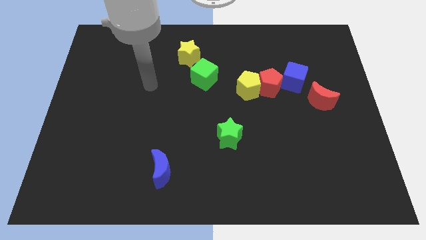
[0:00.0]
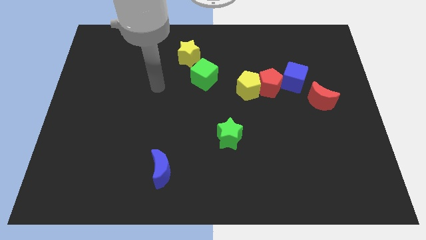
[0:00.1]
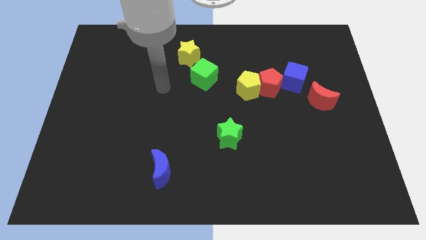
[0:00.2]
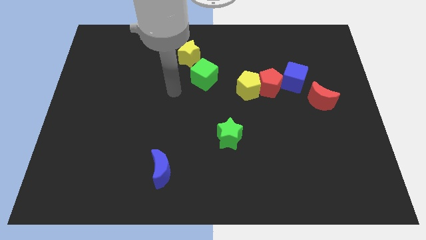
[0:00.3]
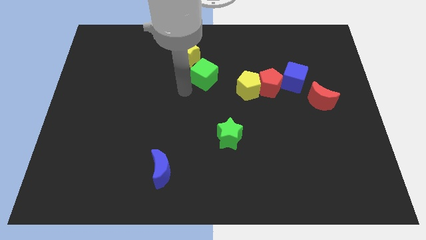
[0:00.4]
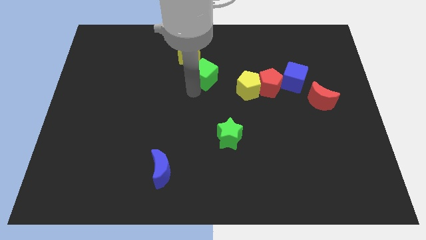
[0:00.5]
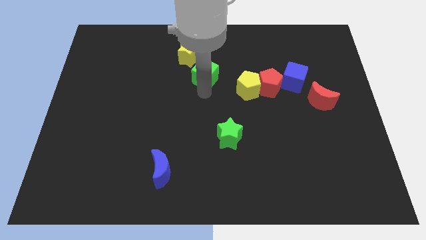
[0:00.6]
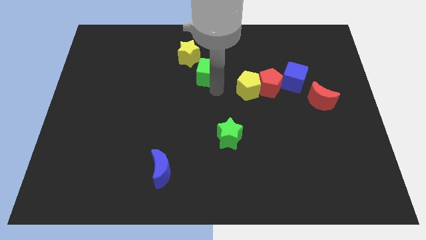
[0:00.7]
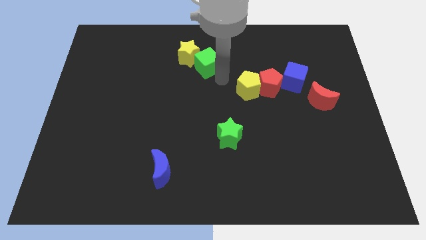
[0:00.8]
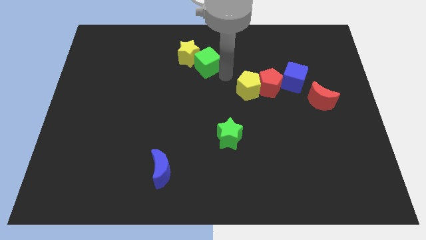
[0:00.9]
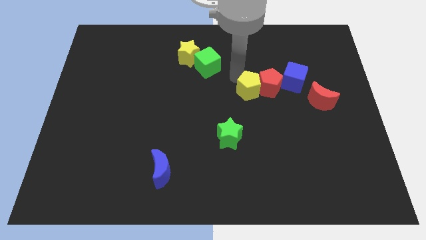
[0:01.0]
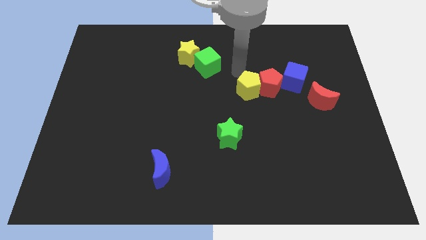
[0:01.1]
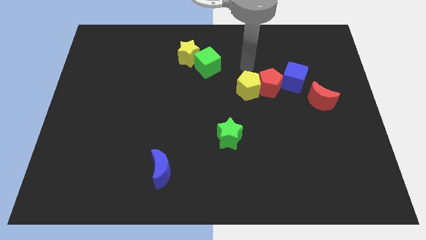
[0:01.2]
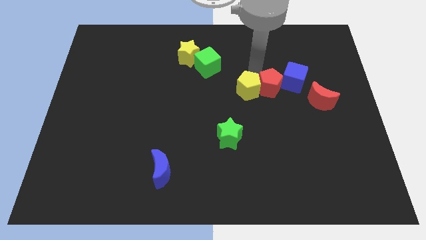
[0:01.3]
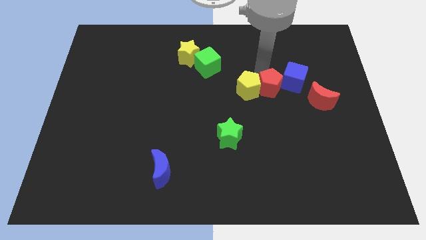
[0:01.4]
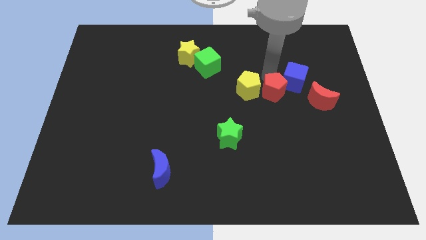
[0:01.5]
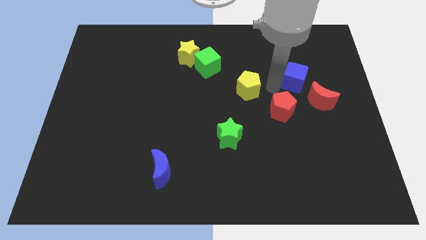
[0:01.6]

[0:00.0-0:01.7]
separate the yellow pentagon from the red pentagon

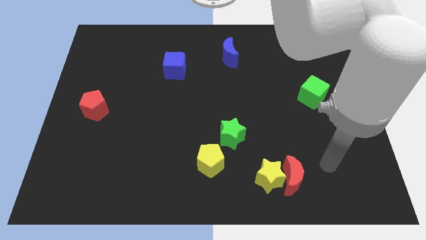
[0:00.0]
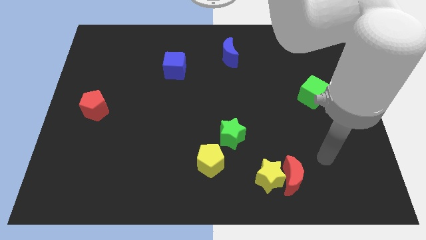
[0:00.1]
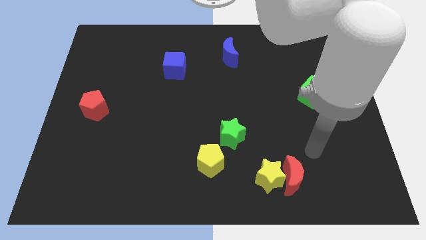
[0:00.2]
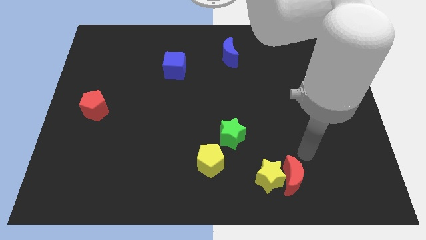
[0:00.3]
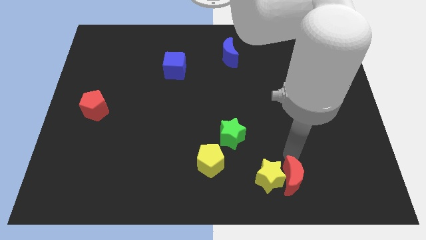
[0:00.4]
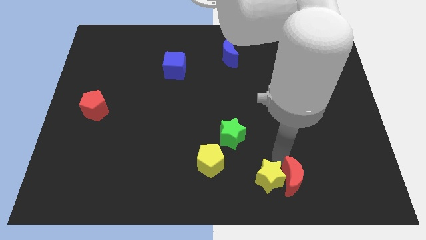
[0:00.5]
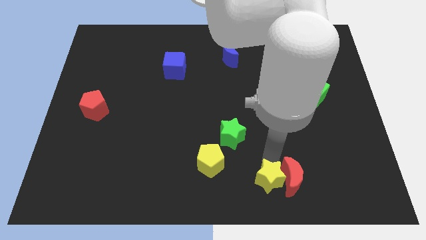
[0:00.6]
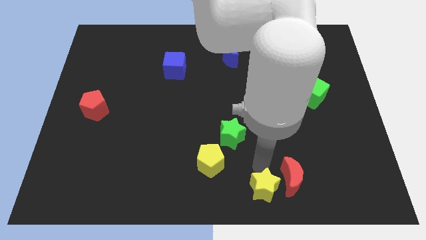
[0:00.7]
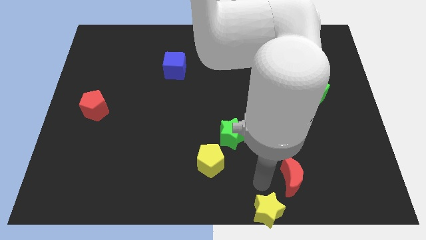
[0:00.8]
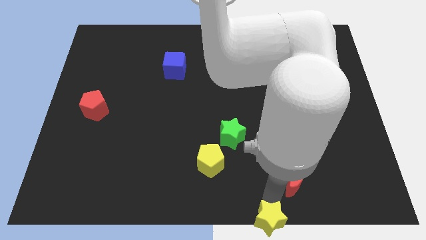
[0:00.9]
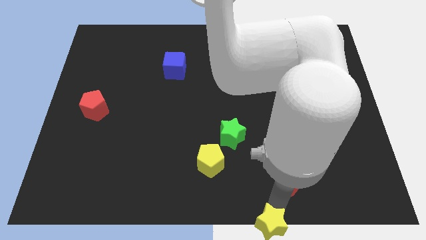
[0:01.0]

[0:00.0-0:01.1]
move the red moon away from the yellow star

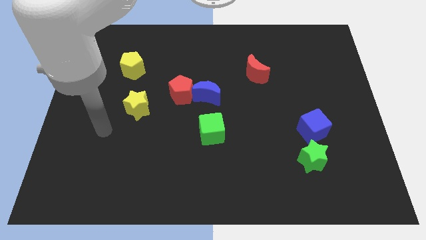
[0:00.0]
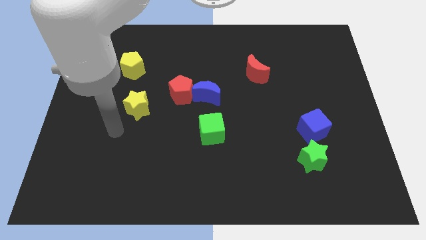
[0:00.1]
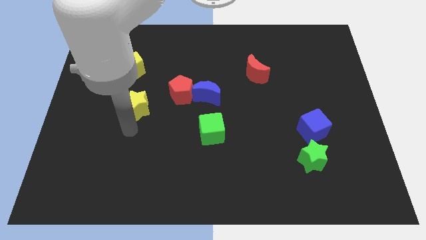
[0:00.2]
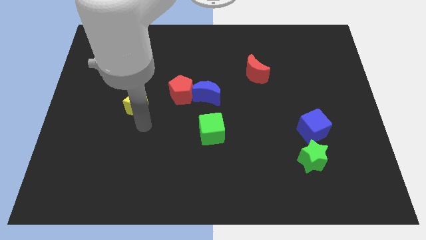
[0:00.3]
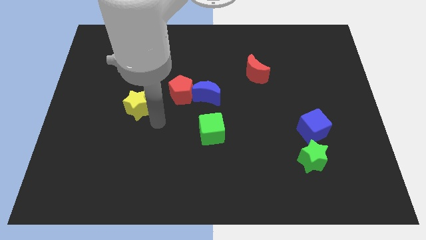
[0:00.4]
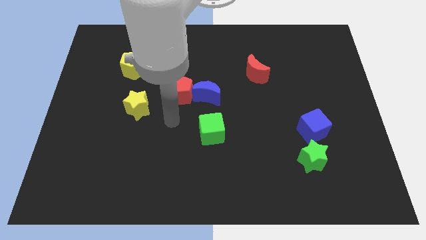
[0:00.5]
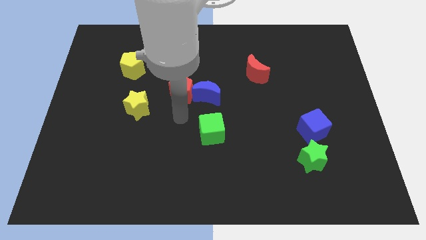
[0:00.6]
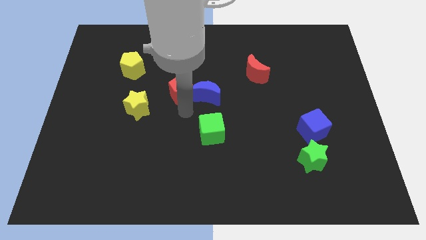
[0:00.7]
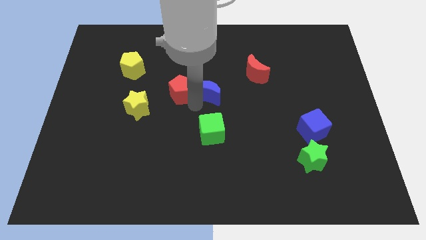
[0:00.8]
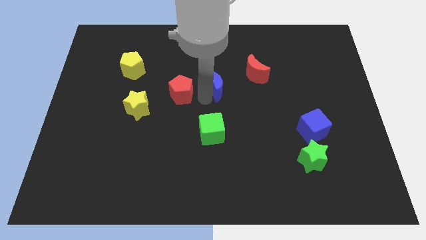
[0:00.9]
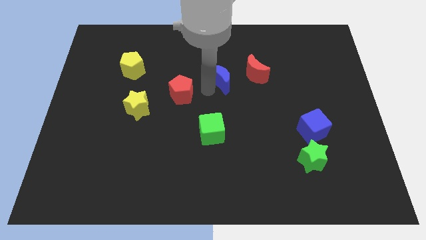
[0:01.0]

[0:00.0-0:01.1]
separate the red pentagon from the blue moon

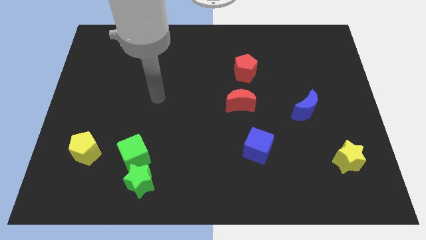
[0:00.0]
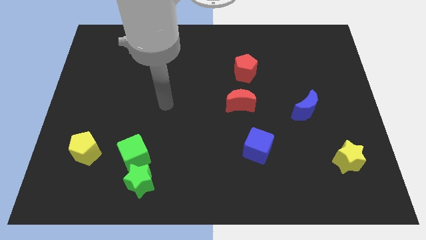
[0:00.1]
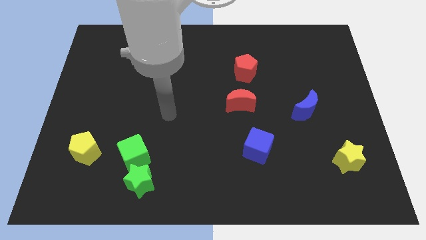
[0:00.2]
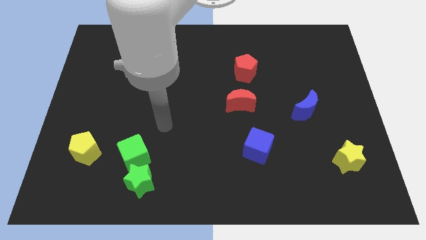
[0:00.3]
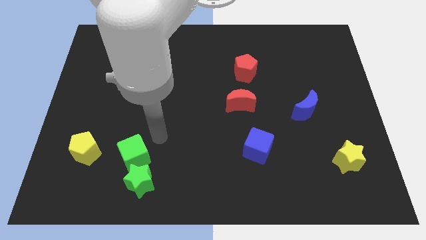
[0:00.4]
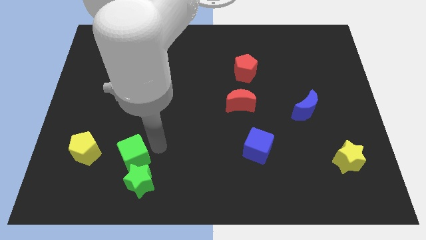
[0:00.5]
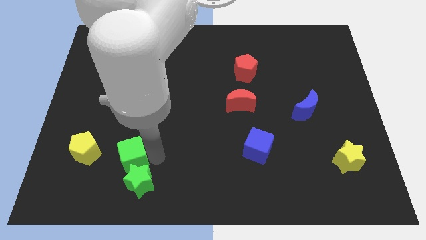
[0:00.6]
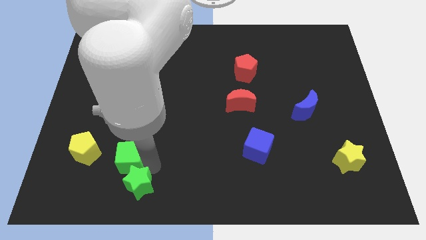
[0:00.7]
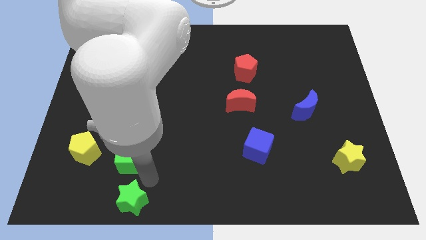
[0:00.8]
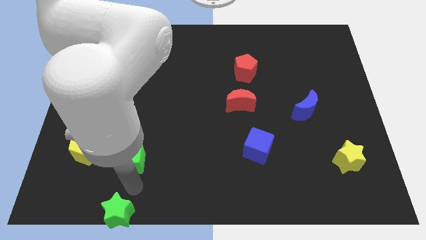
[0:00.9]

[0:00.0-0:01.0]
pull the green cube apart from the green star

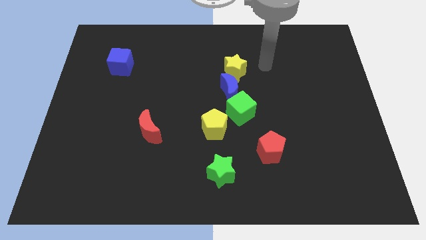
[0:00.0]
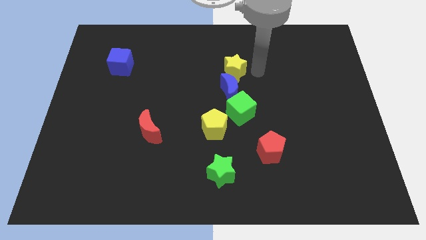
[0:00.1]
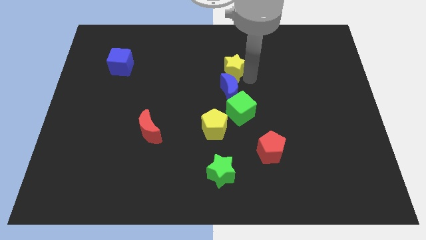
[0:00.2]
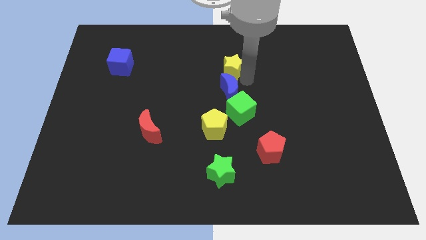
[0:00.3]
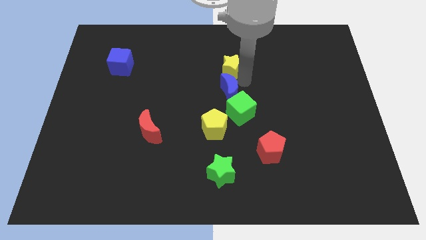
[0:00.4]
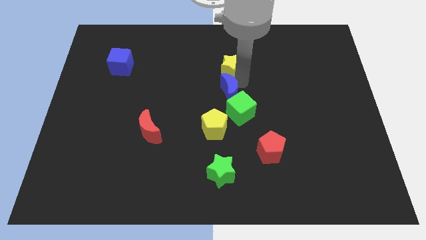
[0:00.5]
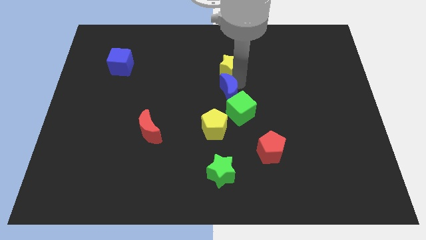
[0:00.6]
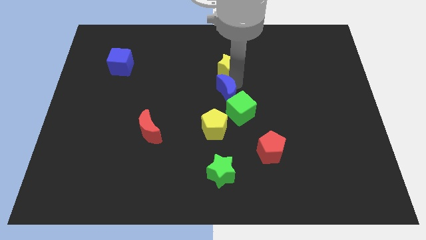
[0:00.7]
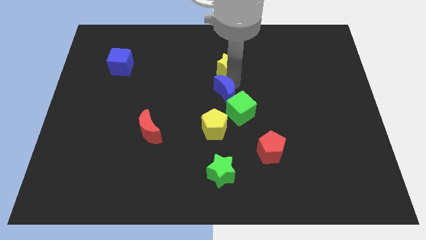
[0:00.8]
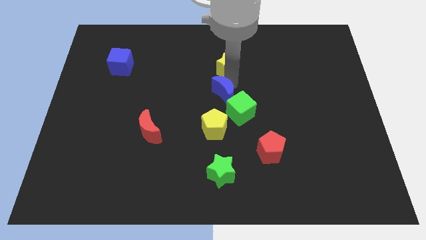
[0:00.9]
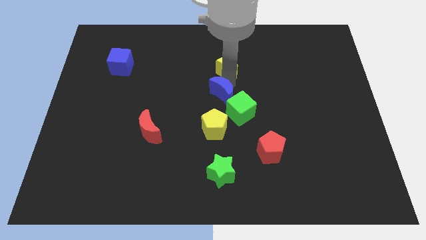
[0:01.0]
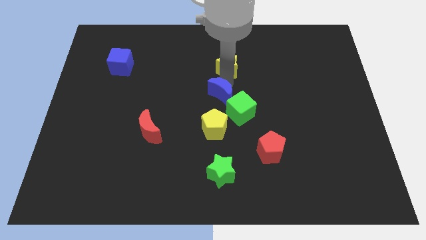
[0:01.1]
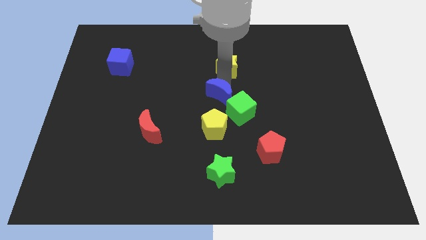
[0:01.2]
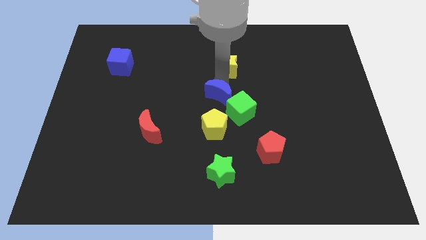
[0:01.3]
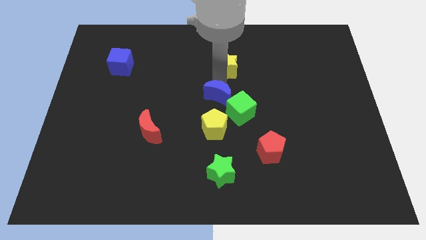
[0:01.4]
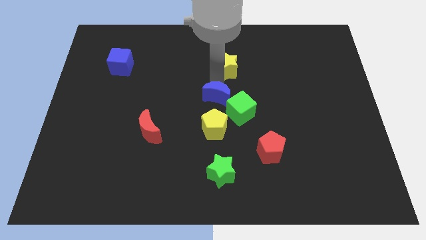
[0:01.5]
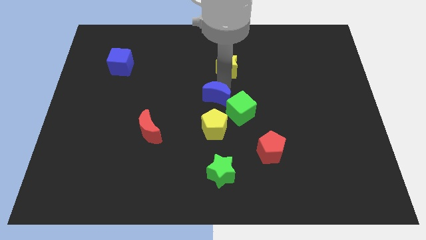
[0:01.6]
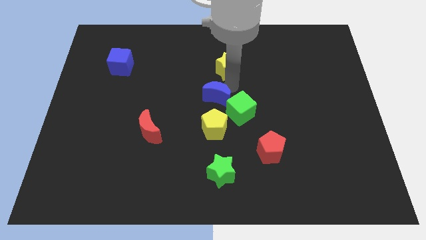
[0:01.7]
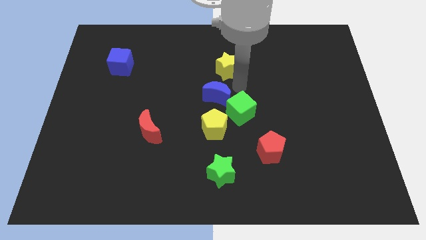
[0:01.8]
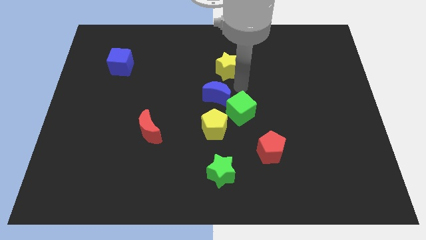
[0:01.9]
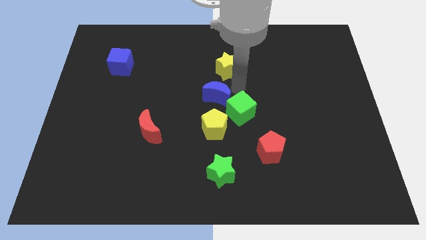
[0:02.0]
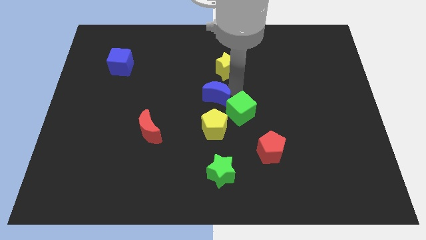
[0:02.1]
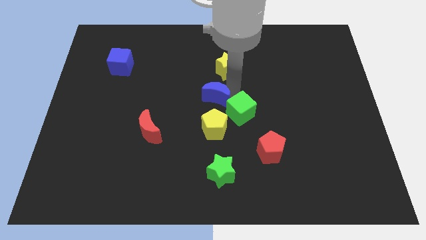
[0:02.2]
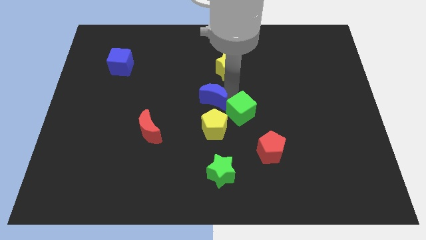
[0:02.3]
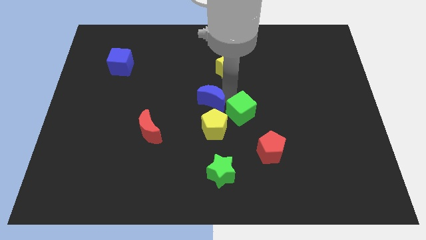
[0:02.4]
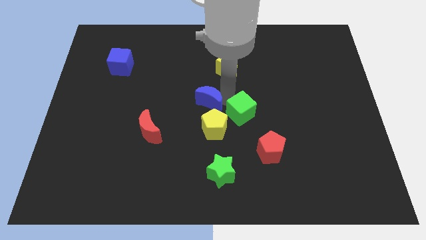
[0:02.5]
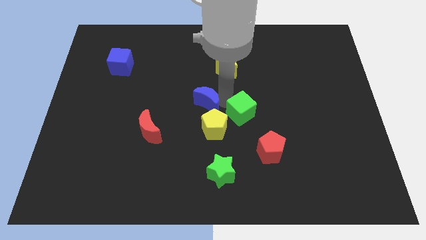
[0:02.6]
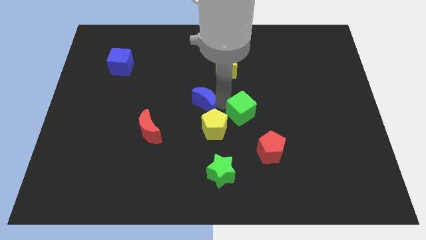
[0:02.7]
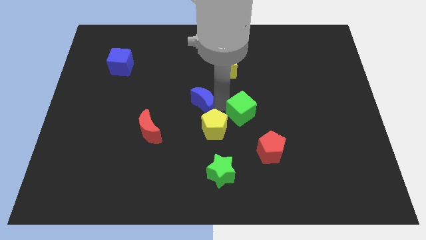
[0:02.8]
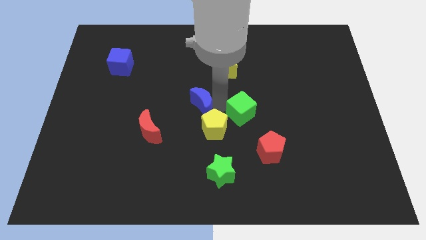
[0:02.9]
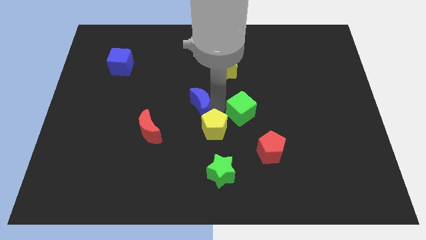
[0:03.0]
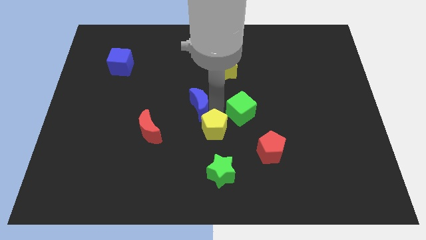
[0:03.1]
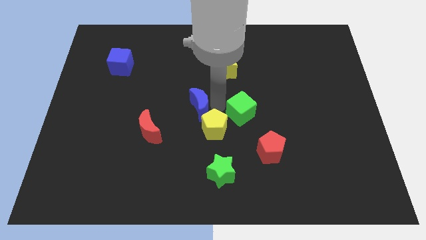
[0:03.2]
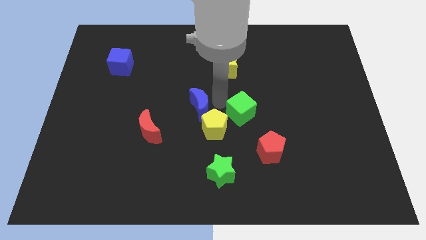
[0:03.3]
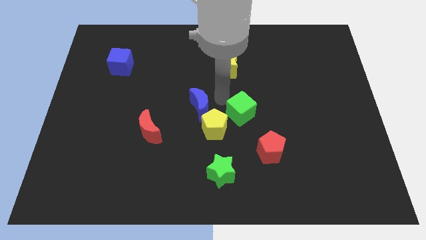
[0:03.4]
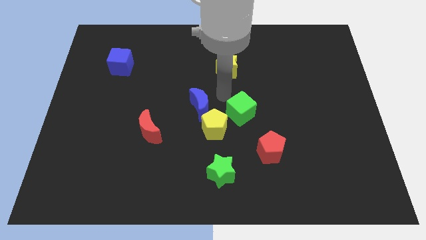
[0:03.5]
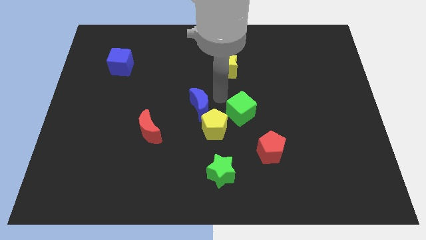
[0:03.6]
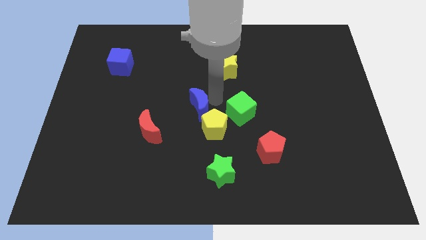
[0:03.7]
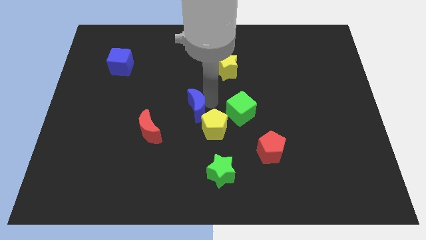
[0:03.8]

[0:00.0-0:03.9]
pull the blue moon apart from the green cube and yellow star

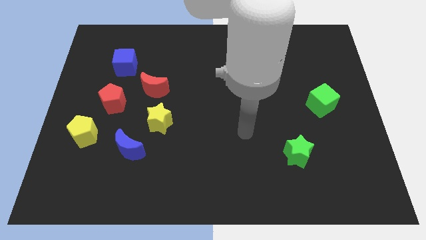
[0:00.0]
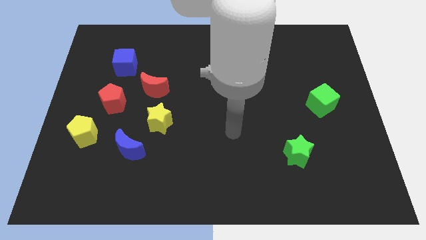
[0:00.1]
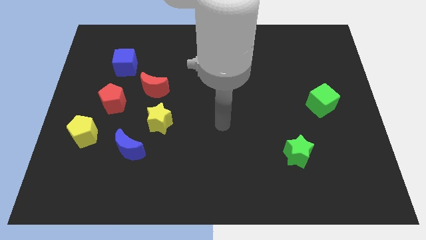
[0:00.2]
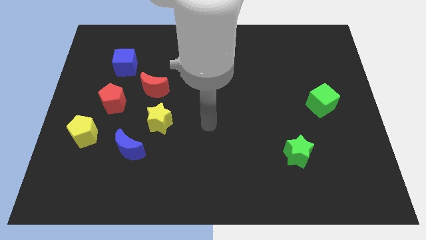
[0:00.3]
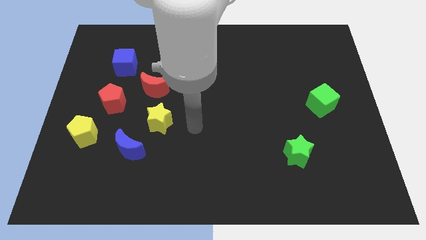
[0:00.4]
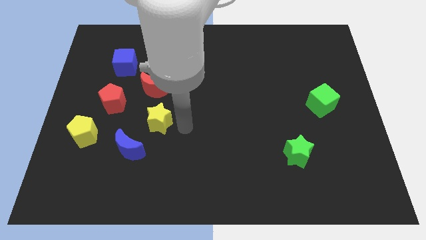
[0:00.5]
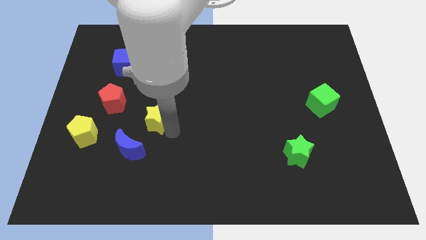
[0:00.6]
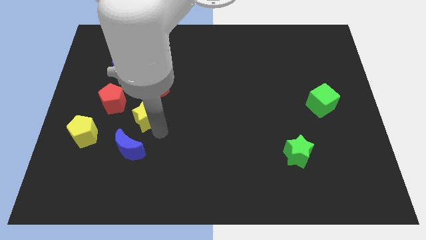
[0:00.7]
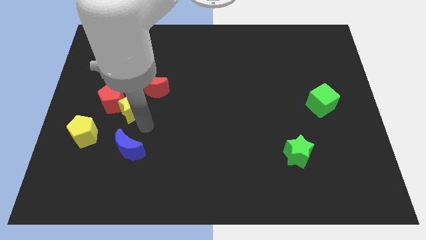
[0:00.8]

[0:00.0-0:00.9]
pull the blue moon apart from the yellow star
